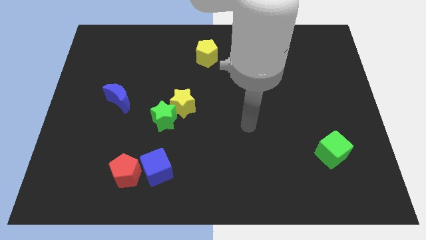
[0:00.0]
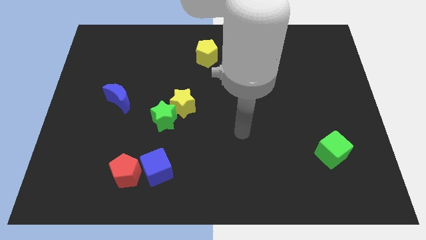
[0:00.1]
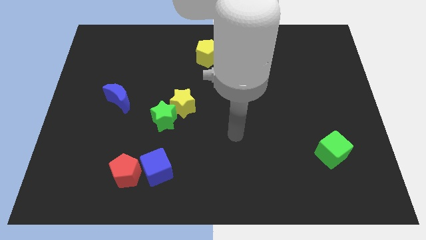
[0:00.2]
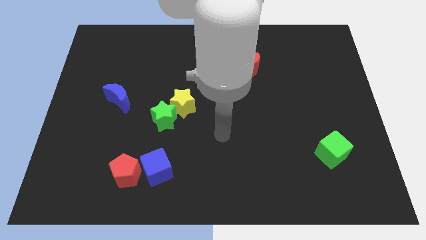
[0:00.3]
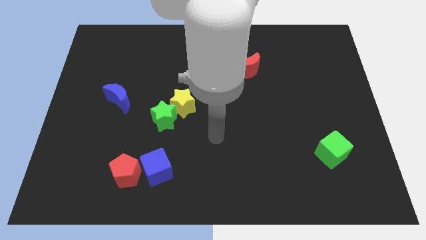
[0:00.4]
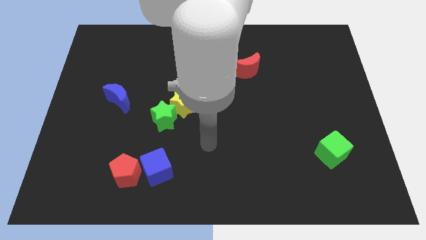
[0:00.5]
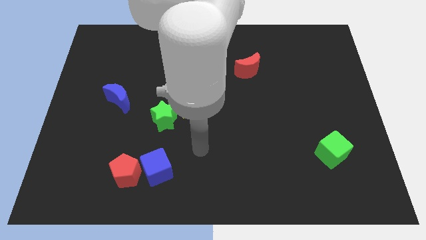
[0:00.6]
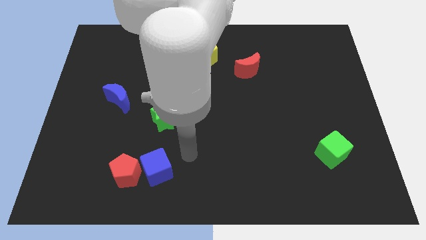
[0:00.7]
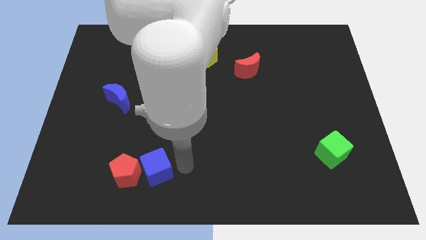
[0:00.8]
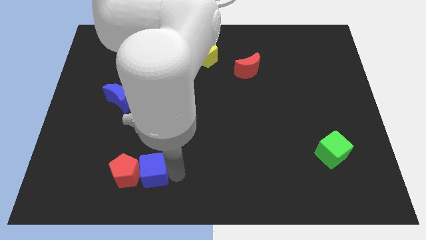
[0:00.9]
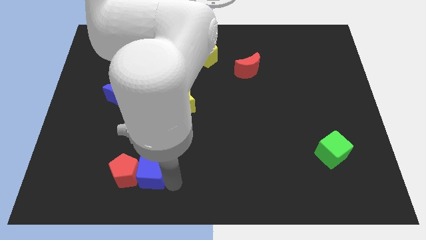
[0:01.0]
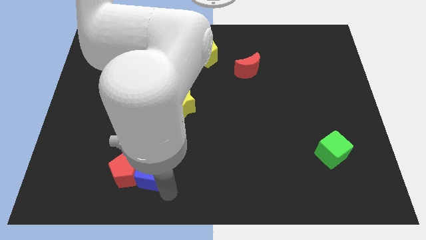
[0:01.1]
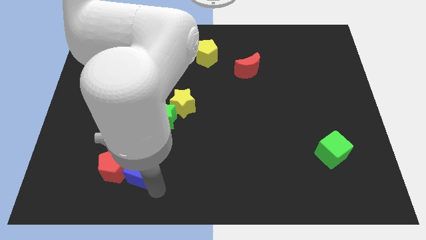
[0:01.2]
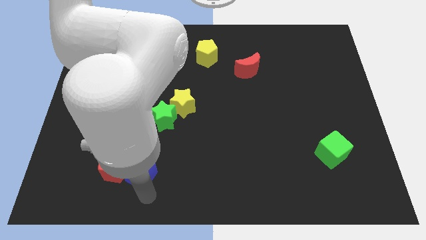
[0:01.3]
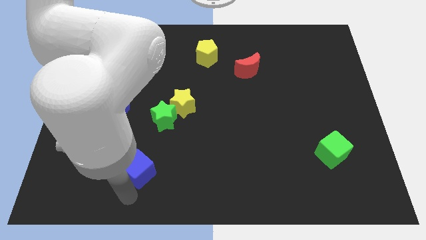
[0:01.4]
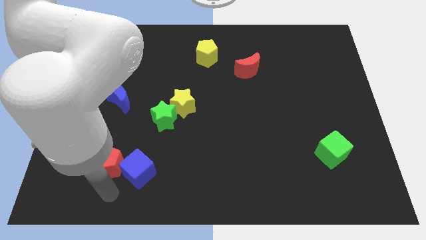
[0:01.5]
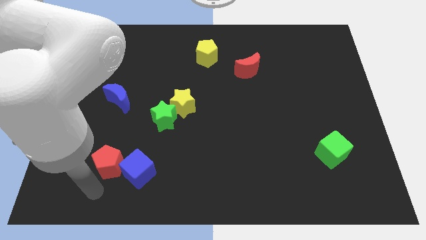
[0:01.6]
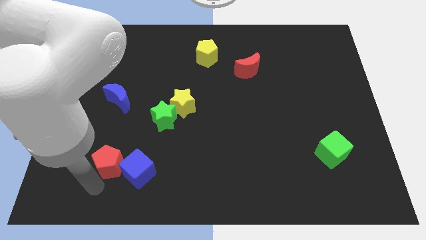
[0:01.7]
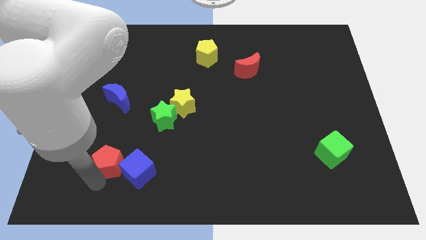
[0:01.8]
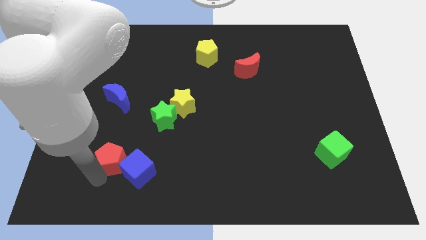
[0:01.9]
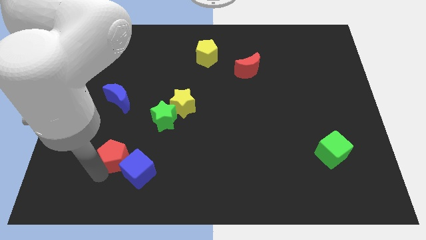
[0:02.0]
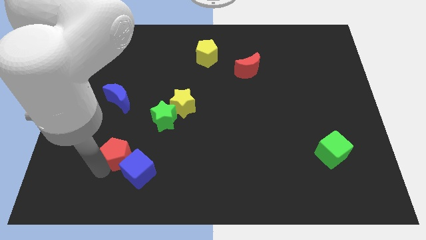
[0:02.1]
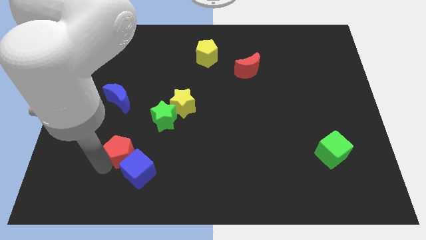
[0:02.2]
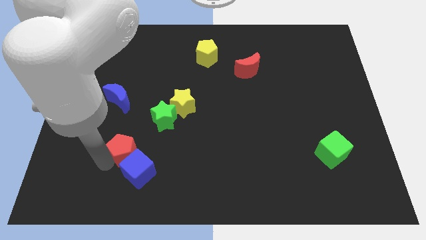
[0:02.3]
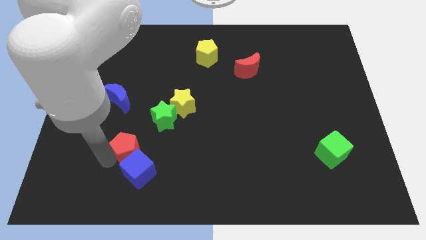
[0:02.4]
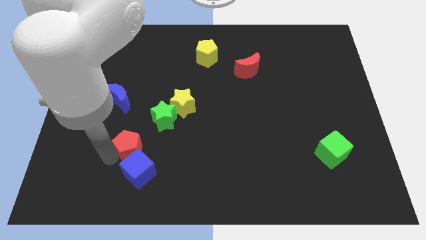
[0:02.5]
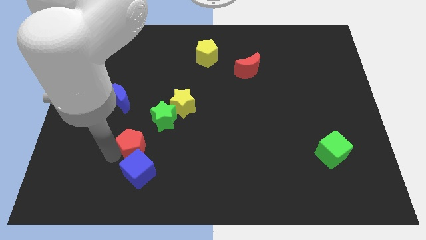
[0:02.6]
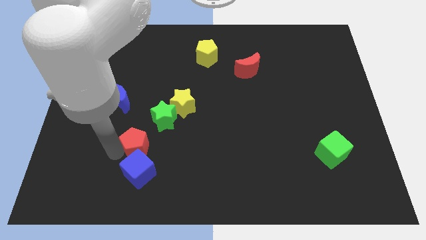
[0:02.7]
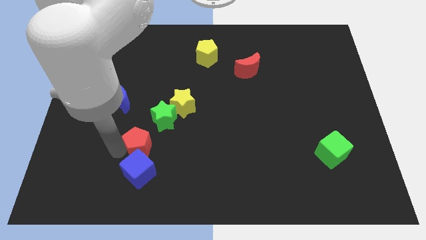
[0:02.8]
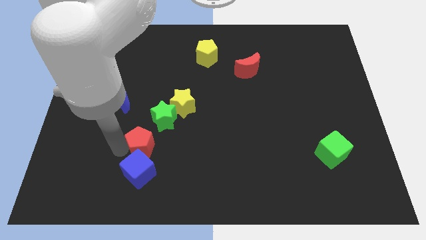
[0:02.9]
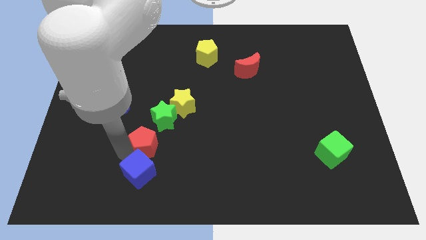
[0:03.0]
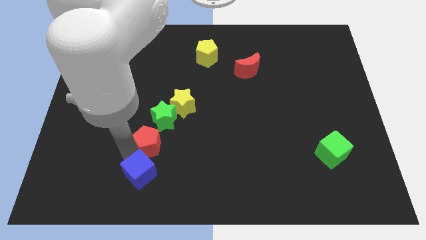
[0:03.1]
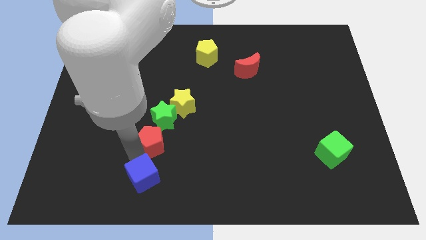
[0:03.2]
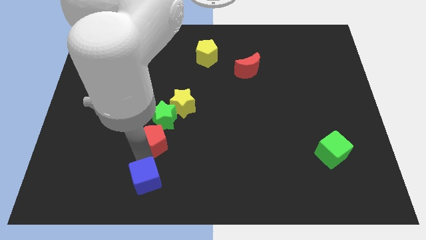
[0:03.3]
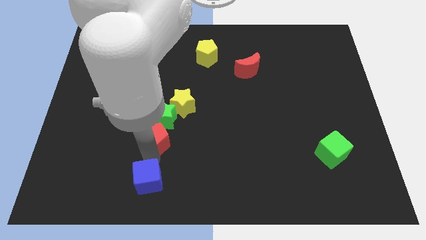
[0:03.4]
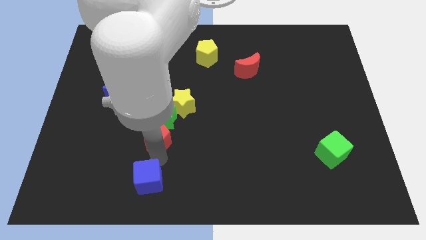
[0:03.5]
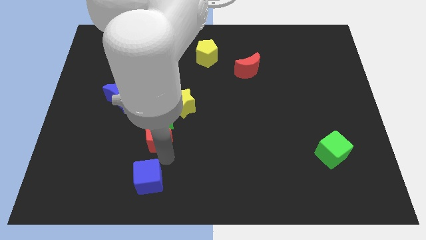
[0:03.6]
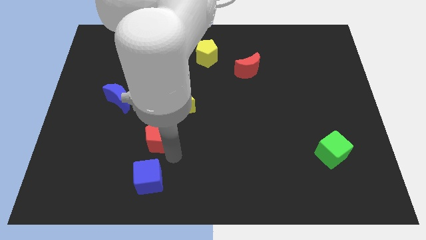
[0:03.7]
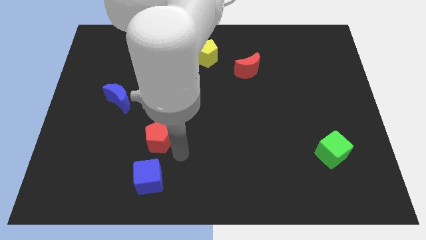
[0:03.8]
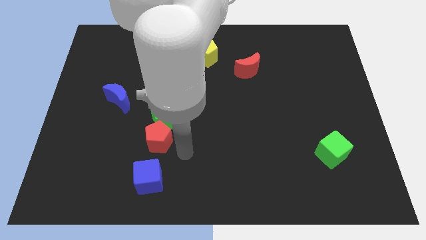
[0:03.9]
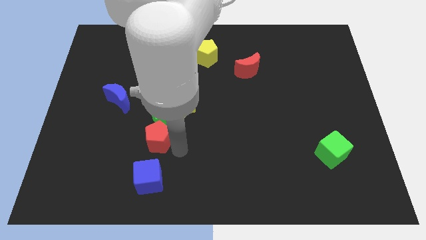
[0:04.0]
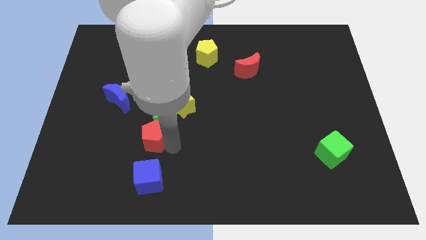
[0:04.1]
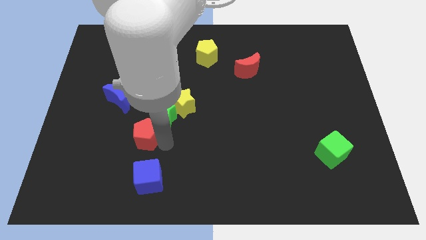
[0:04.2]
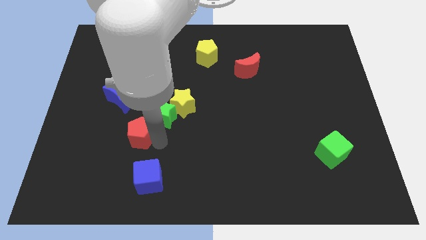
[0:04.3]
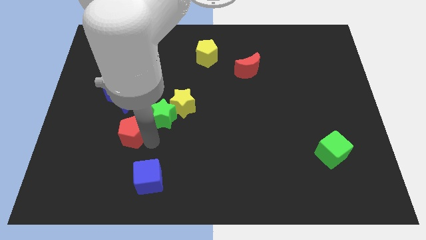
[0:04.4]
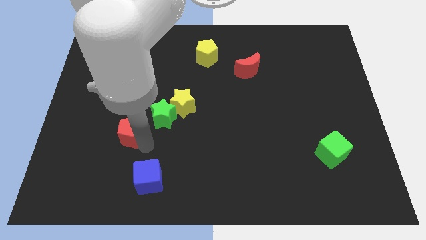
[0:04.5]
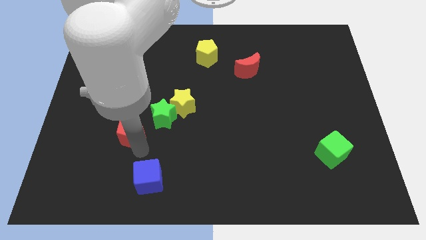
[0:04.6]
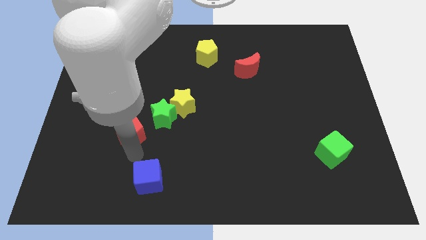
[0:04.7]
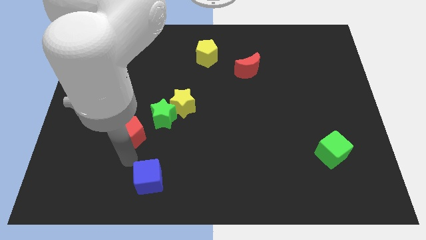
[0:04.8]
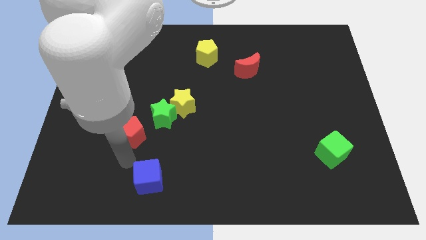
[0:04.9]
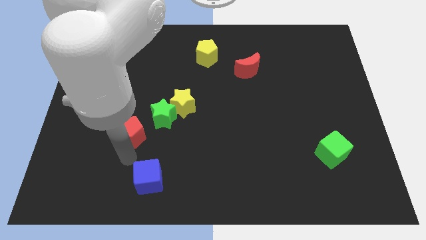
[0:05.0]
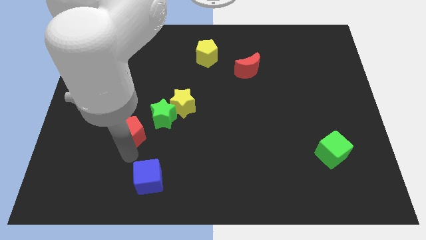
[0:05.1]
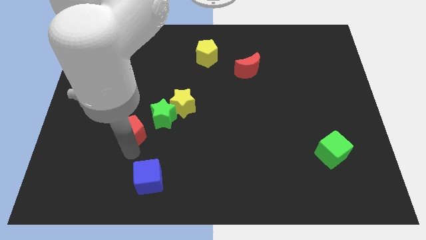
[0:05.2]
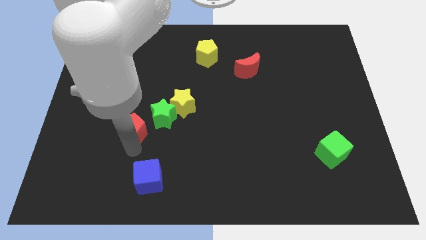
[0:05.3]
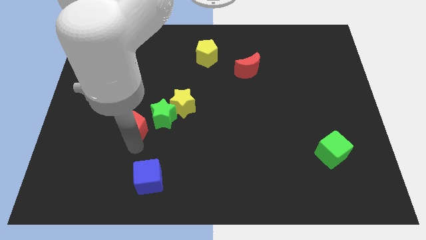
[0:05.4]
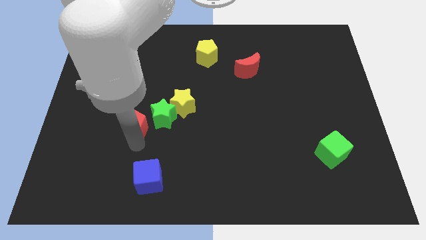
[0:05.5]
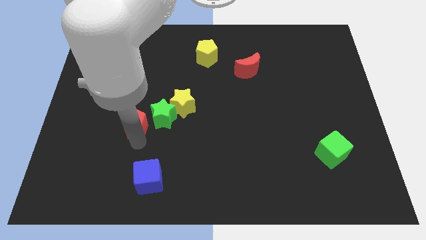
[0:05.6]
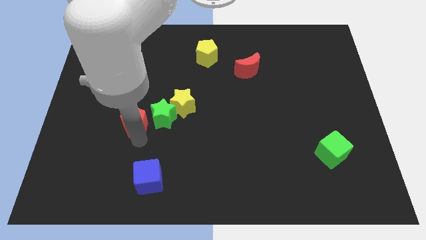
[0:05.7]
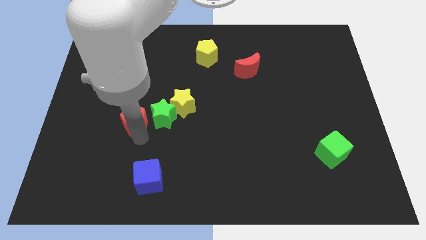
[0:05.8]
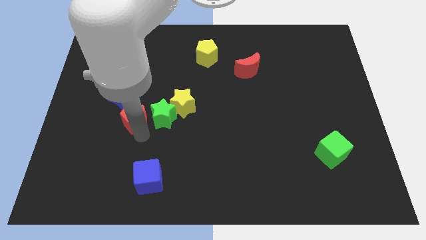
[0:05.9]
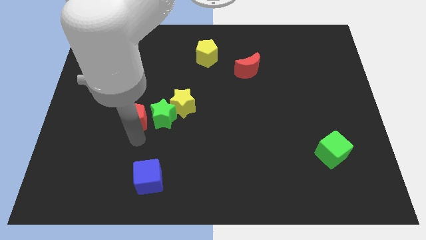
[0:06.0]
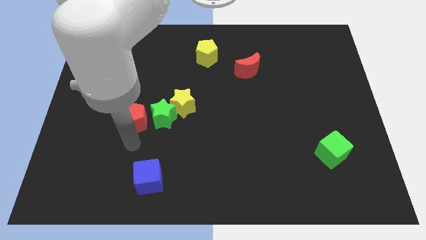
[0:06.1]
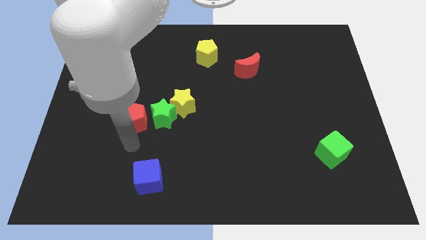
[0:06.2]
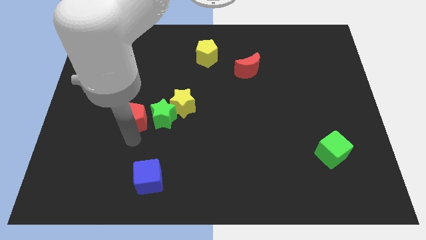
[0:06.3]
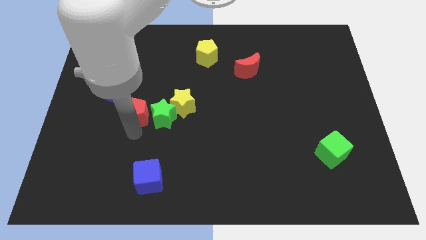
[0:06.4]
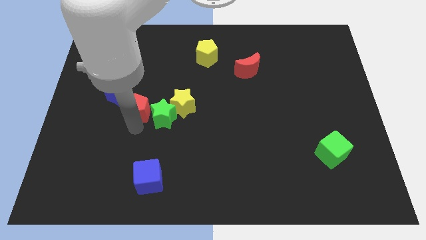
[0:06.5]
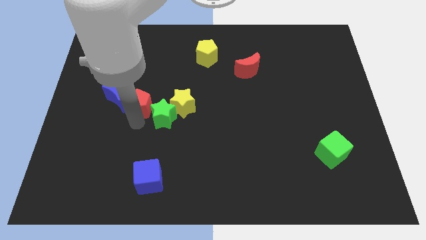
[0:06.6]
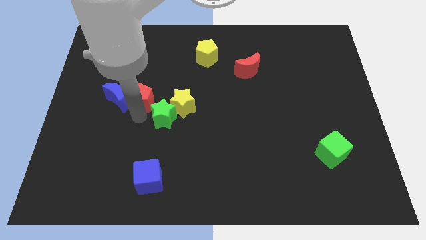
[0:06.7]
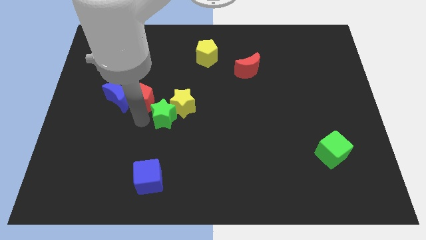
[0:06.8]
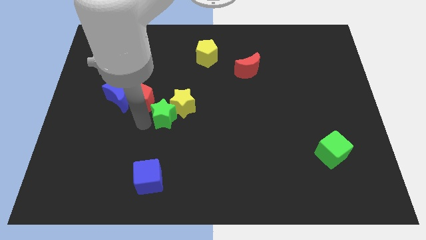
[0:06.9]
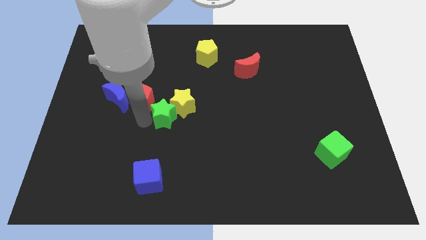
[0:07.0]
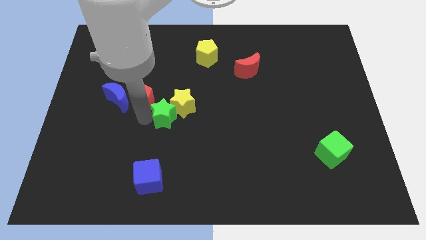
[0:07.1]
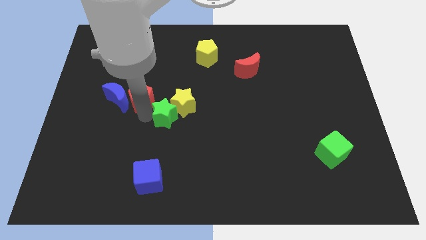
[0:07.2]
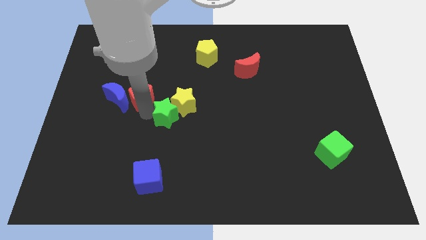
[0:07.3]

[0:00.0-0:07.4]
slide the red pentagon up
